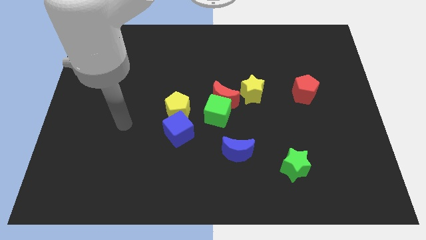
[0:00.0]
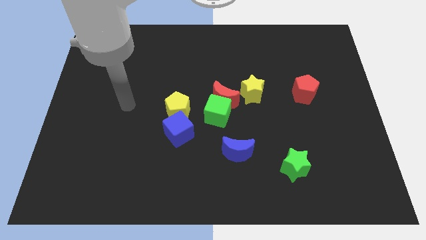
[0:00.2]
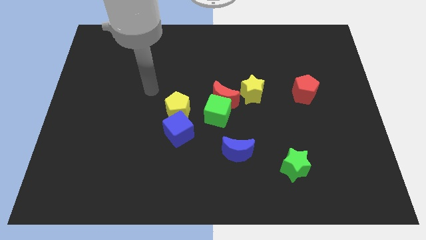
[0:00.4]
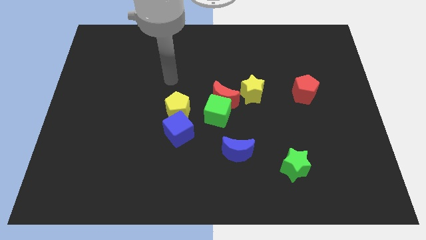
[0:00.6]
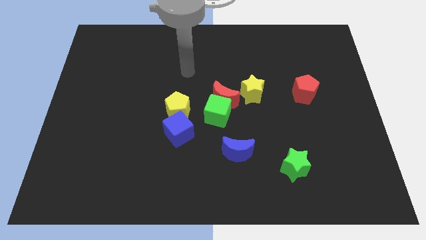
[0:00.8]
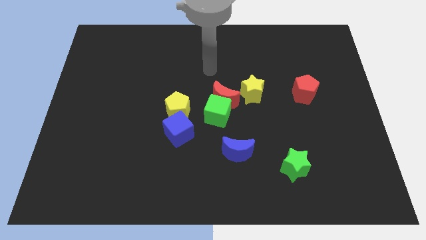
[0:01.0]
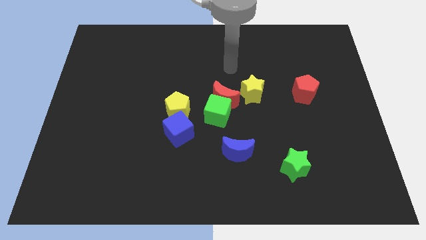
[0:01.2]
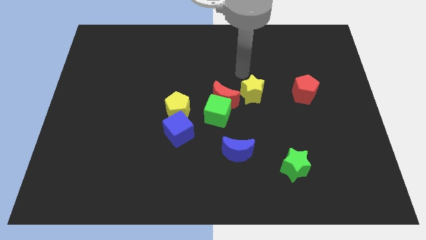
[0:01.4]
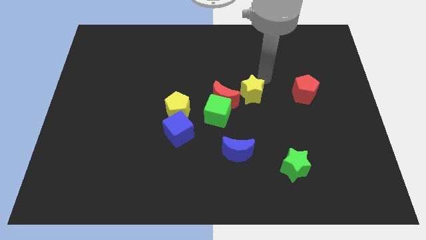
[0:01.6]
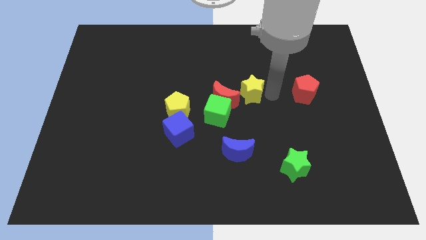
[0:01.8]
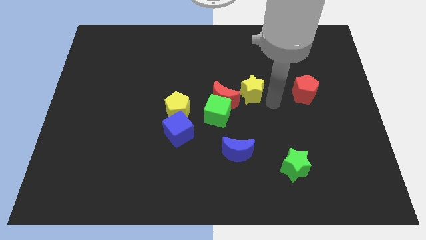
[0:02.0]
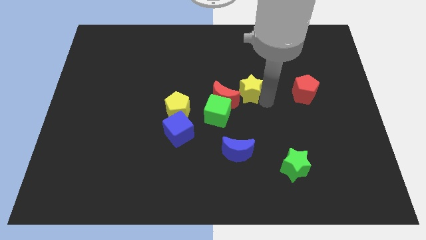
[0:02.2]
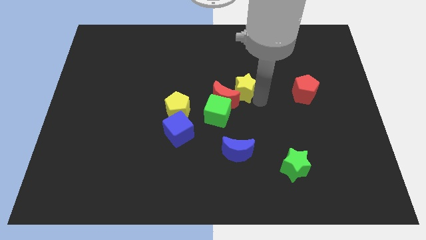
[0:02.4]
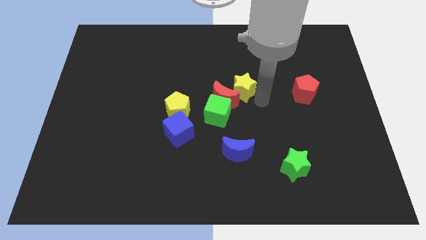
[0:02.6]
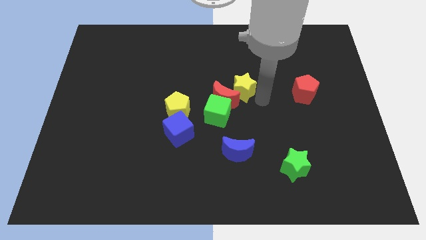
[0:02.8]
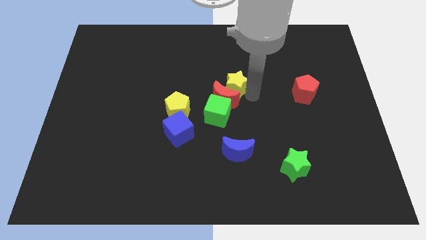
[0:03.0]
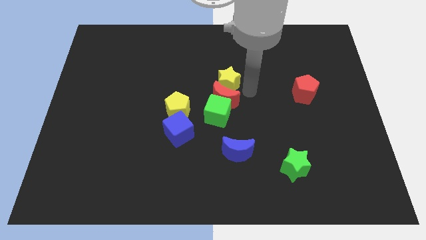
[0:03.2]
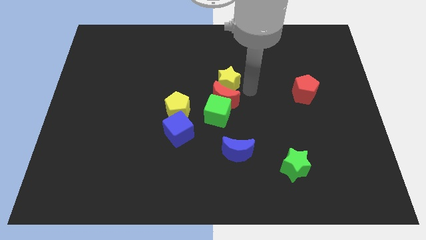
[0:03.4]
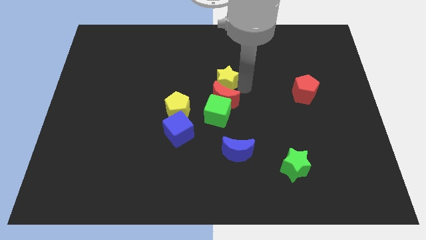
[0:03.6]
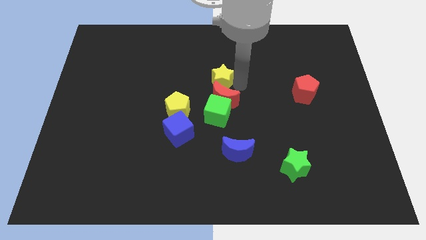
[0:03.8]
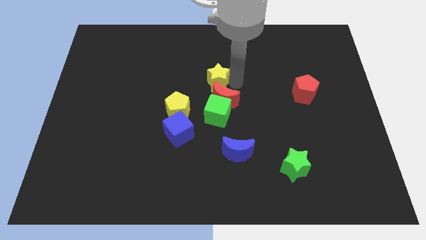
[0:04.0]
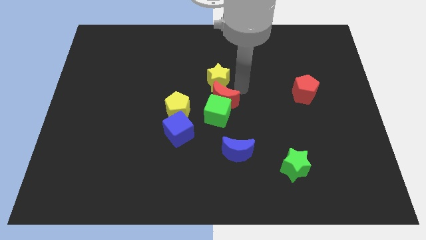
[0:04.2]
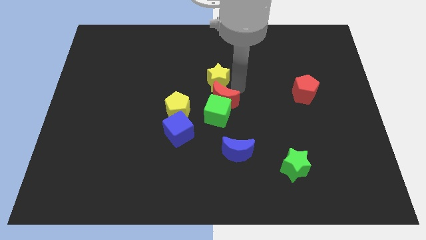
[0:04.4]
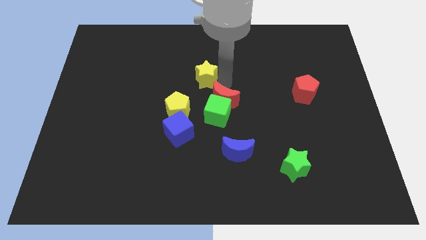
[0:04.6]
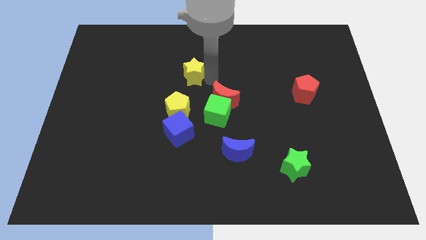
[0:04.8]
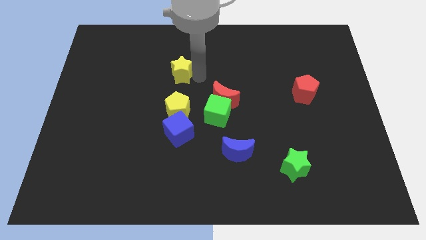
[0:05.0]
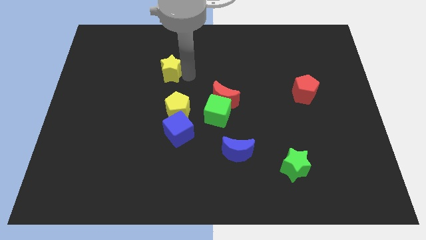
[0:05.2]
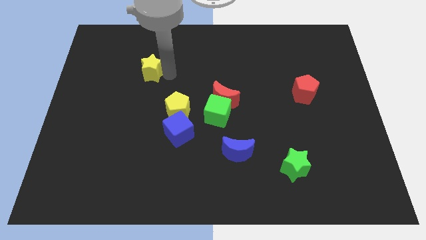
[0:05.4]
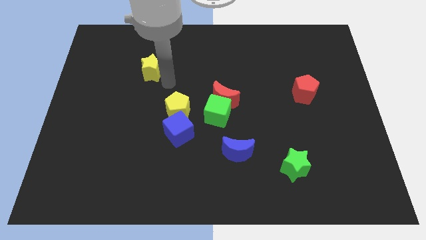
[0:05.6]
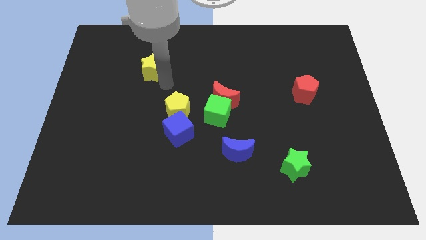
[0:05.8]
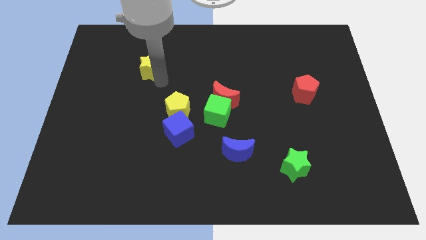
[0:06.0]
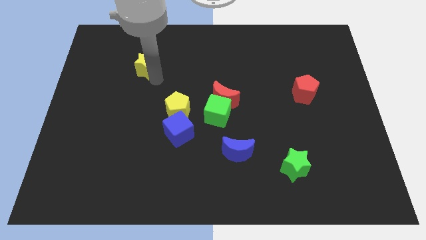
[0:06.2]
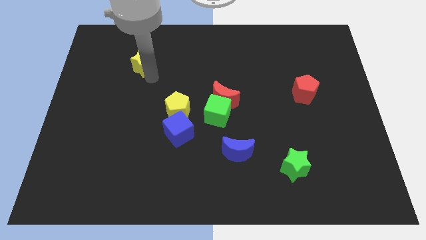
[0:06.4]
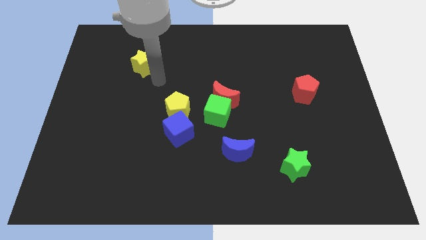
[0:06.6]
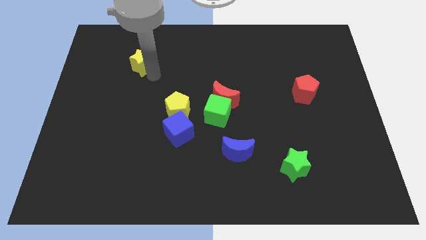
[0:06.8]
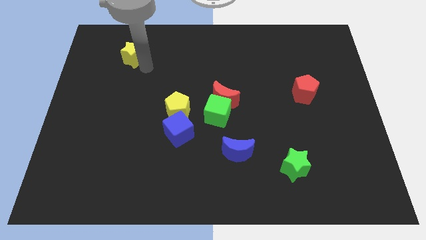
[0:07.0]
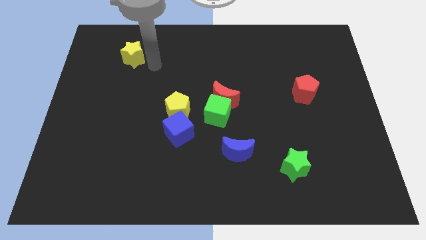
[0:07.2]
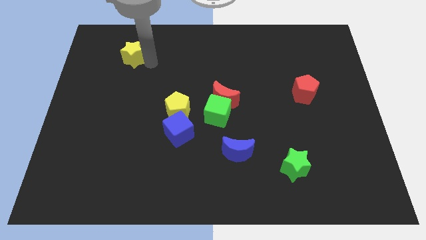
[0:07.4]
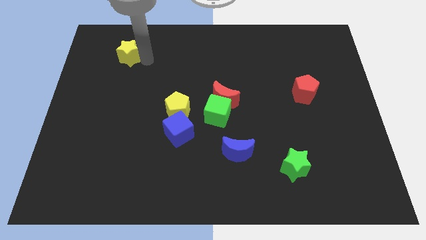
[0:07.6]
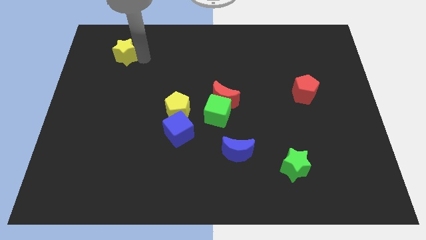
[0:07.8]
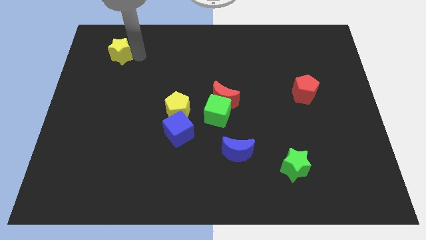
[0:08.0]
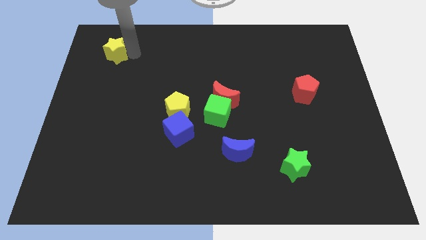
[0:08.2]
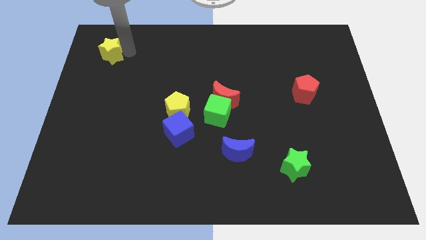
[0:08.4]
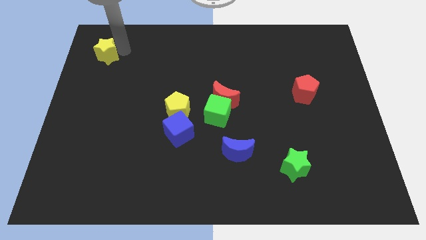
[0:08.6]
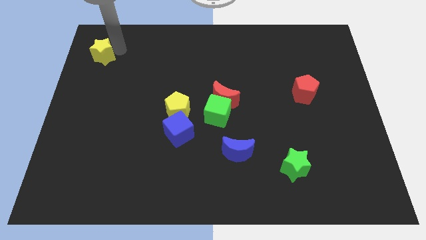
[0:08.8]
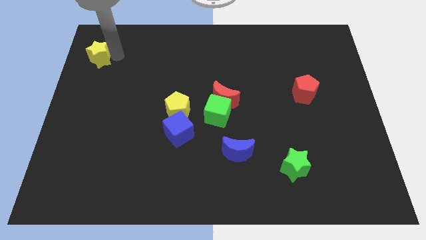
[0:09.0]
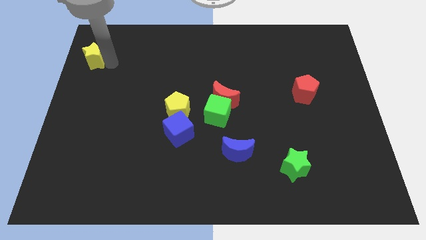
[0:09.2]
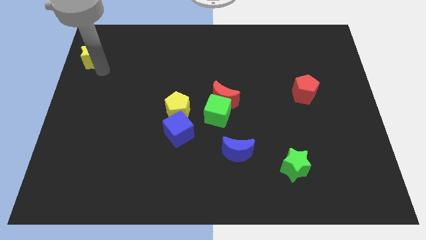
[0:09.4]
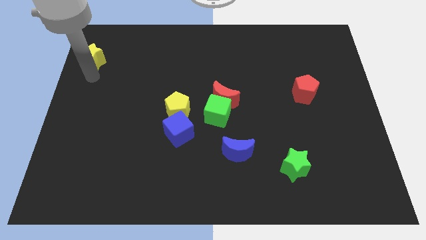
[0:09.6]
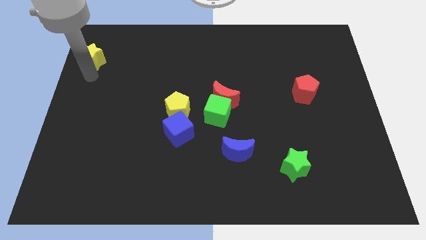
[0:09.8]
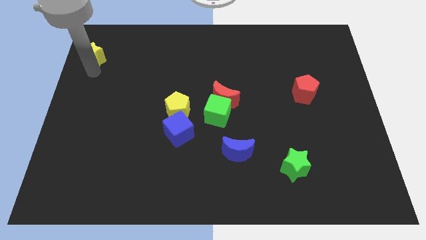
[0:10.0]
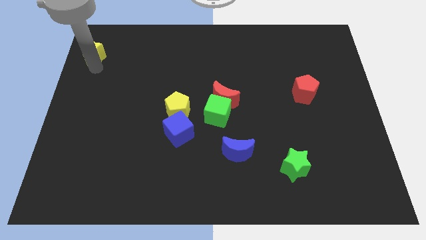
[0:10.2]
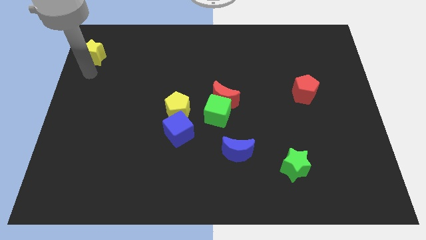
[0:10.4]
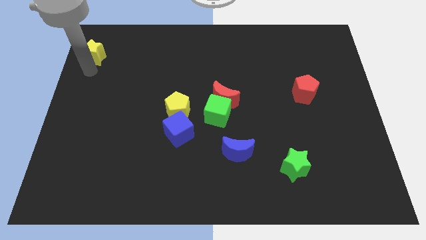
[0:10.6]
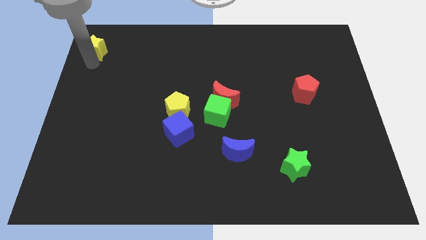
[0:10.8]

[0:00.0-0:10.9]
move the yellow star to the top left of the board

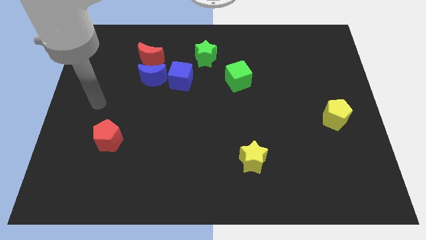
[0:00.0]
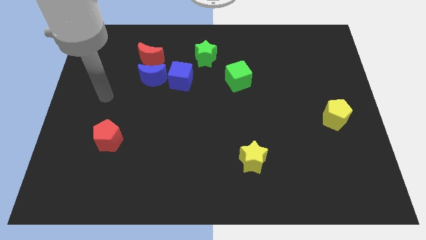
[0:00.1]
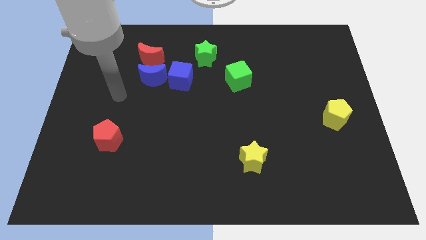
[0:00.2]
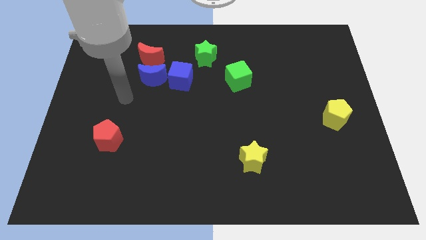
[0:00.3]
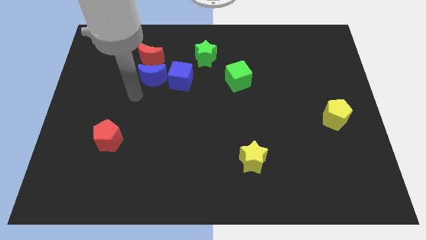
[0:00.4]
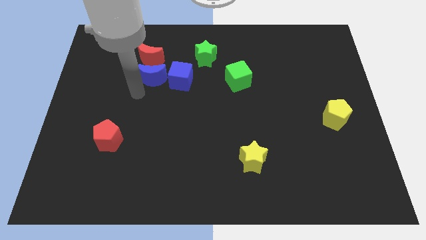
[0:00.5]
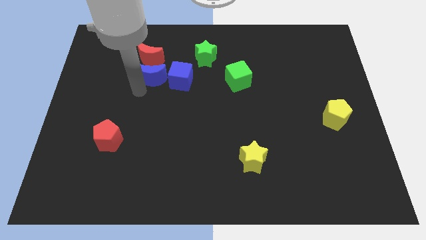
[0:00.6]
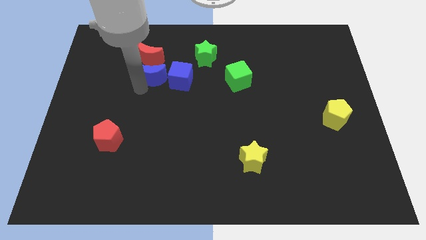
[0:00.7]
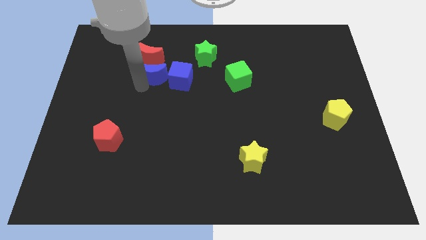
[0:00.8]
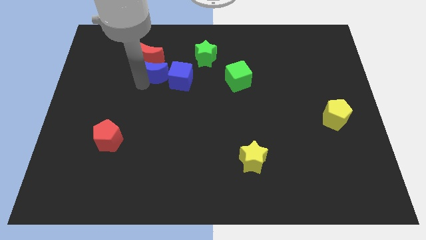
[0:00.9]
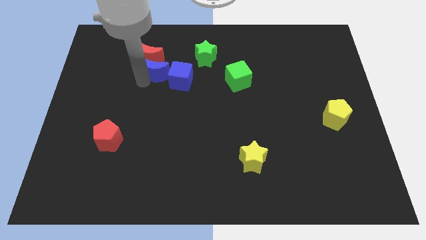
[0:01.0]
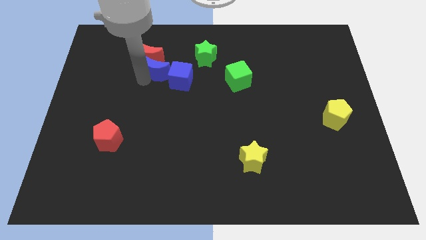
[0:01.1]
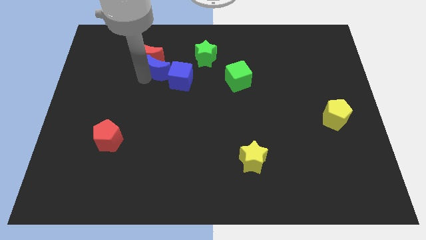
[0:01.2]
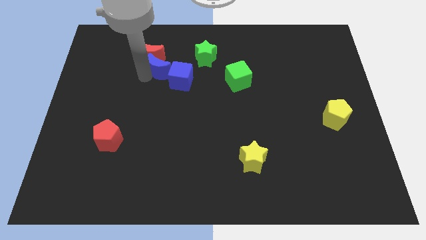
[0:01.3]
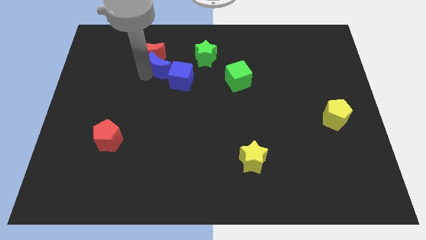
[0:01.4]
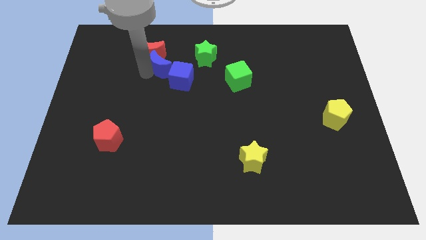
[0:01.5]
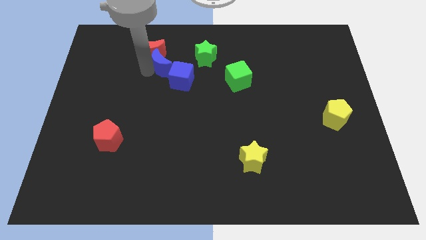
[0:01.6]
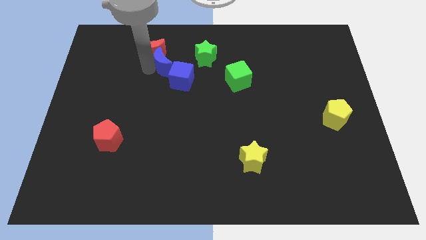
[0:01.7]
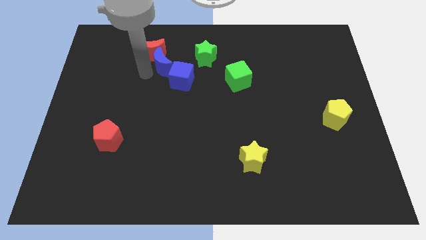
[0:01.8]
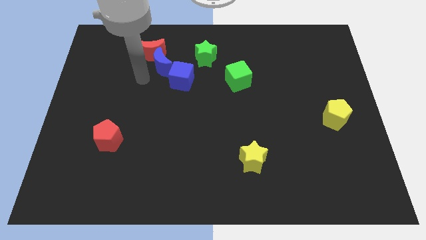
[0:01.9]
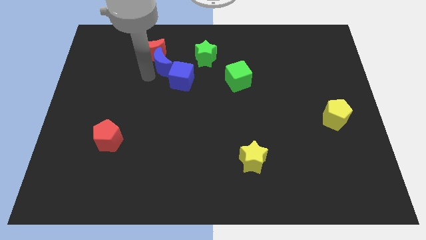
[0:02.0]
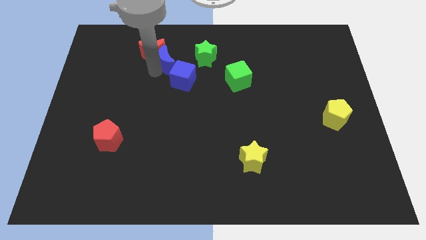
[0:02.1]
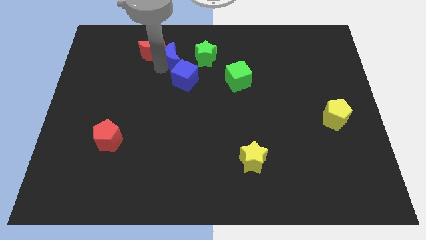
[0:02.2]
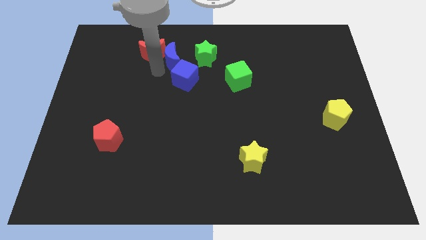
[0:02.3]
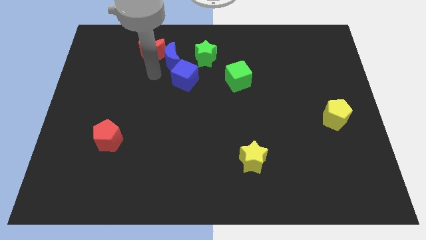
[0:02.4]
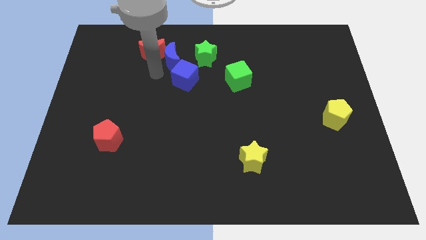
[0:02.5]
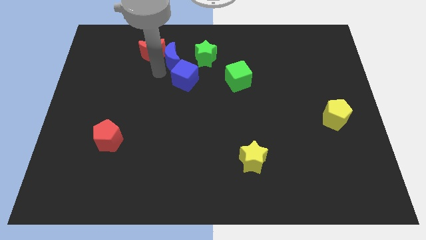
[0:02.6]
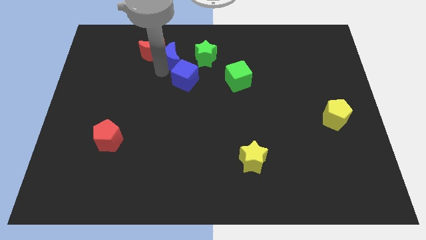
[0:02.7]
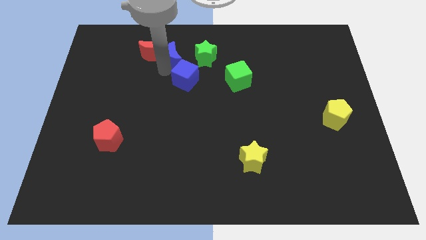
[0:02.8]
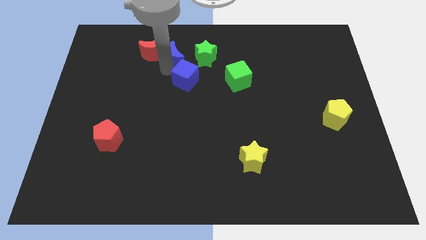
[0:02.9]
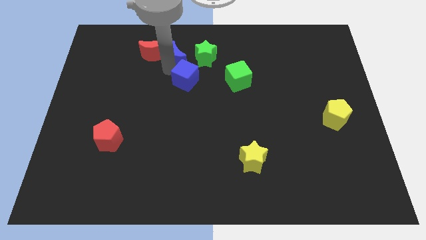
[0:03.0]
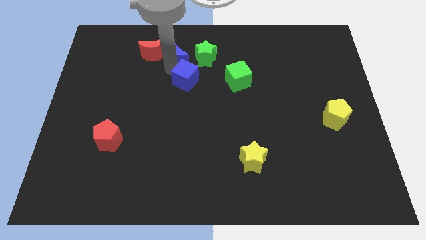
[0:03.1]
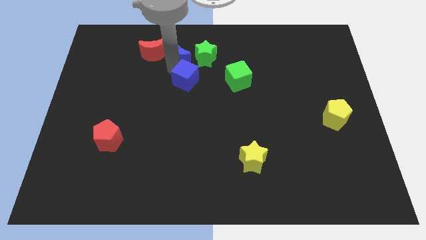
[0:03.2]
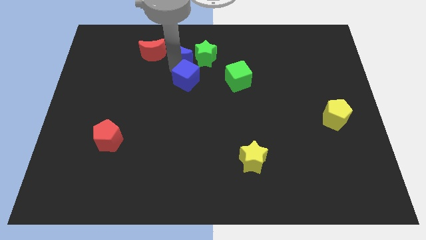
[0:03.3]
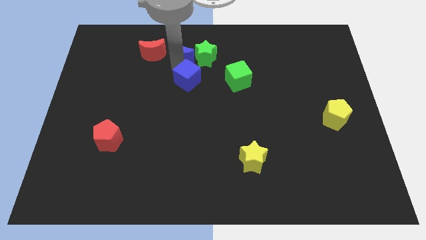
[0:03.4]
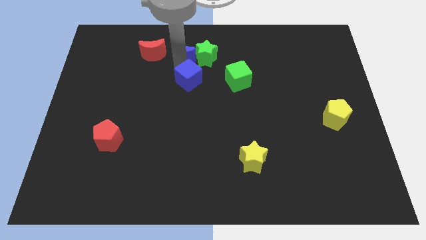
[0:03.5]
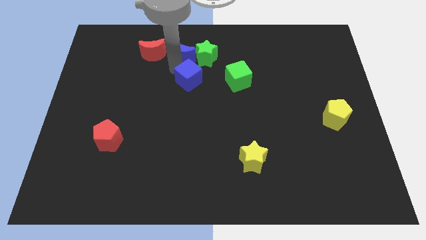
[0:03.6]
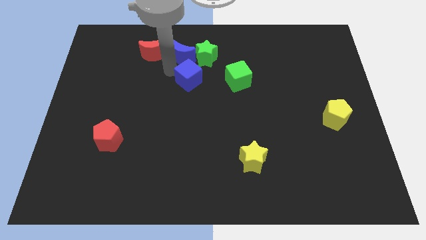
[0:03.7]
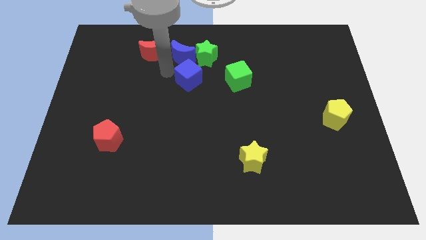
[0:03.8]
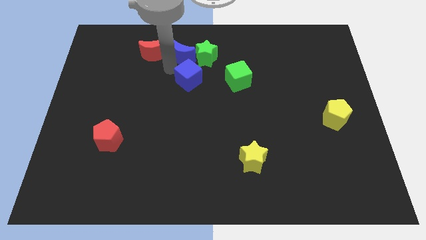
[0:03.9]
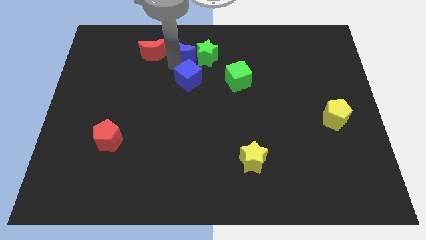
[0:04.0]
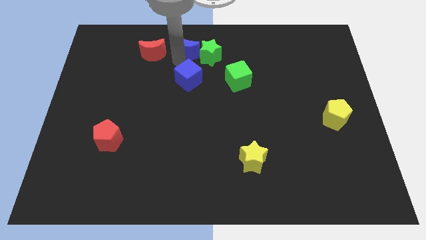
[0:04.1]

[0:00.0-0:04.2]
put the blue moon to the top
